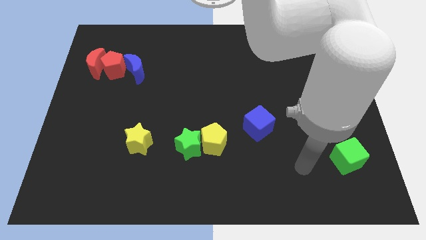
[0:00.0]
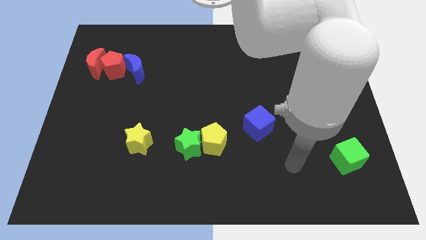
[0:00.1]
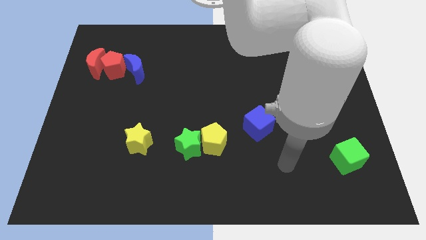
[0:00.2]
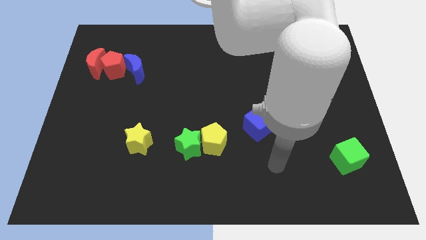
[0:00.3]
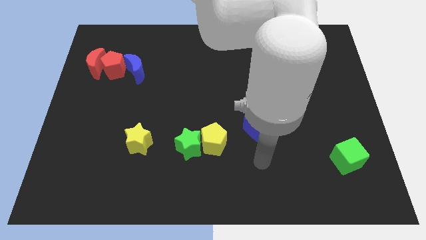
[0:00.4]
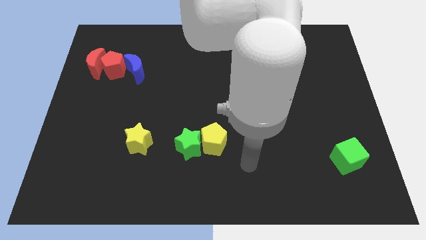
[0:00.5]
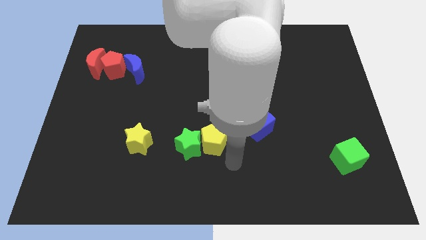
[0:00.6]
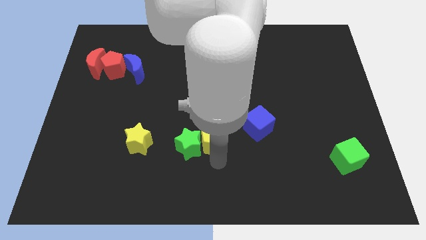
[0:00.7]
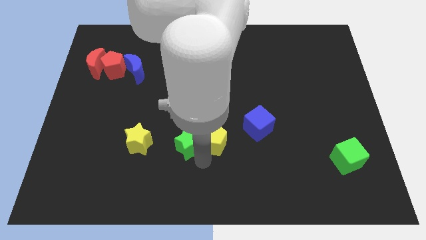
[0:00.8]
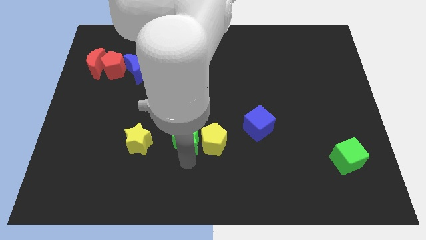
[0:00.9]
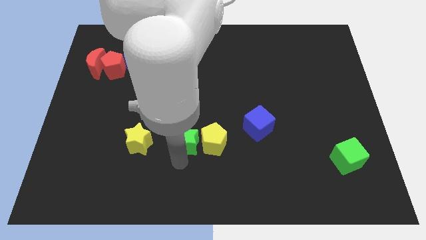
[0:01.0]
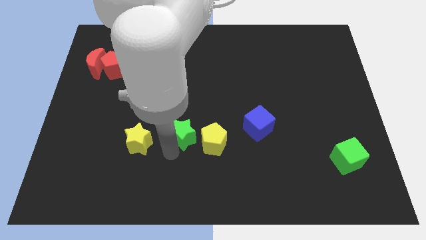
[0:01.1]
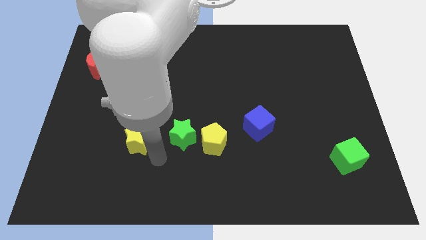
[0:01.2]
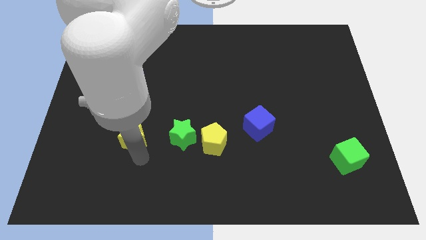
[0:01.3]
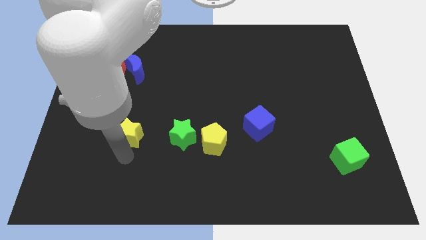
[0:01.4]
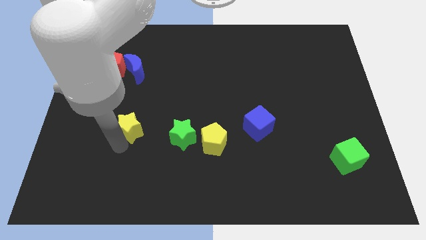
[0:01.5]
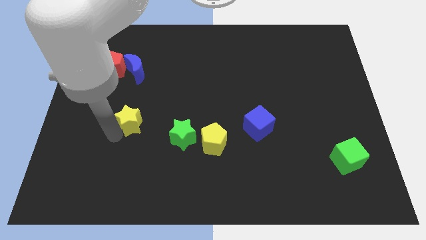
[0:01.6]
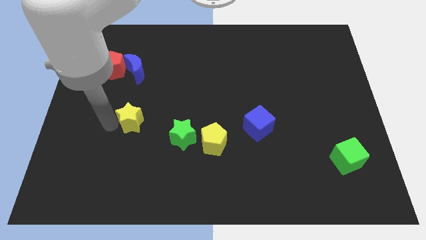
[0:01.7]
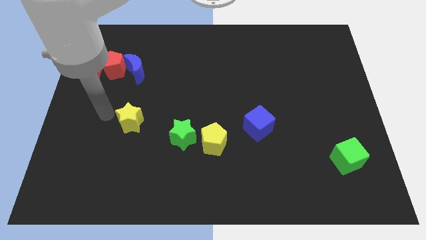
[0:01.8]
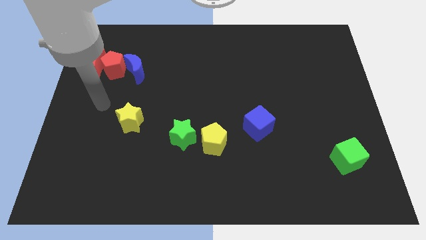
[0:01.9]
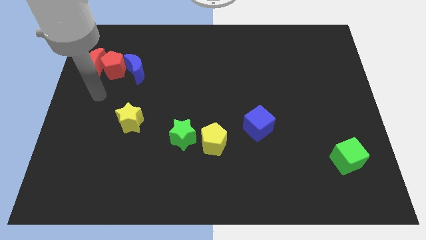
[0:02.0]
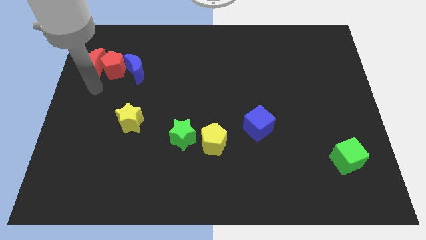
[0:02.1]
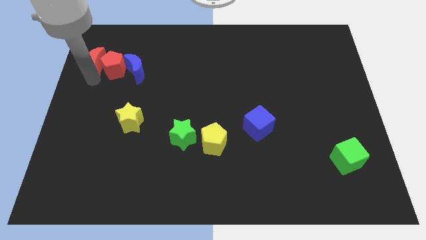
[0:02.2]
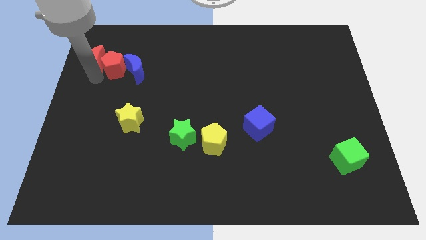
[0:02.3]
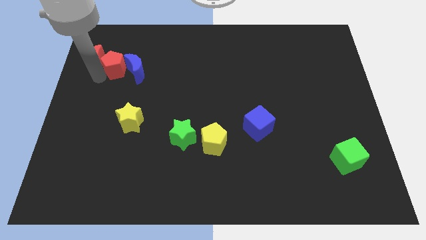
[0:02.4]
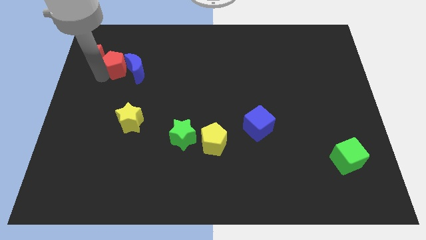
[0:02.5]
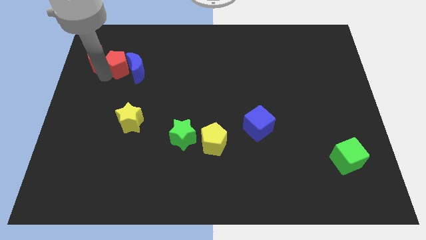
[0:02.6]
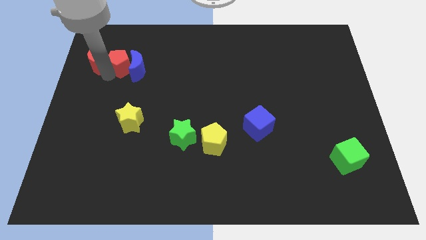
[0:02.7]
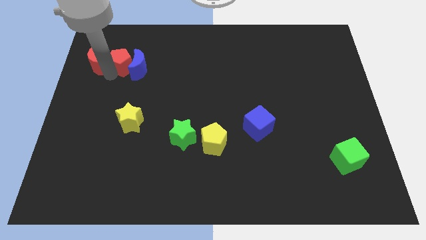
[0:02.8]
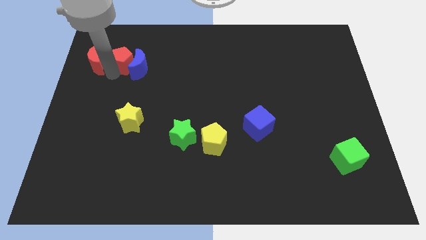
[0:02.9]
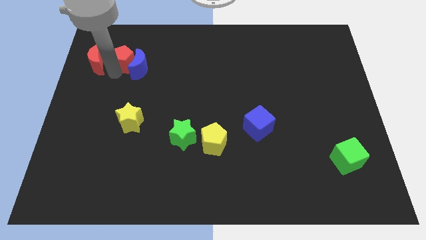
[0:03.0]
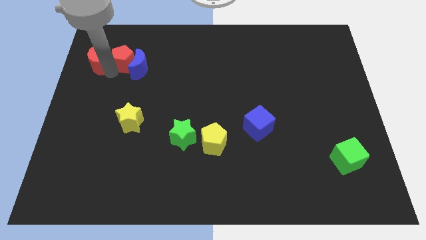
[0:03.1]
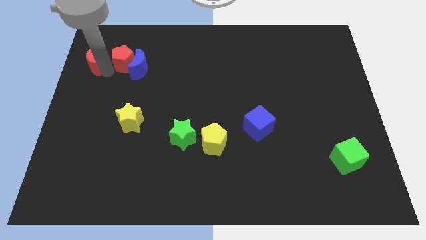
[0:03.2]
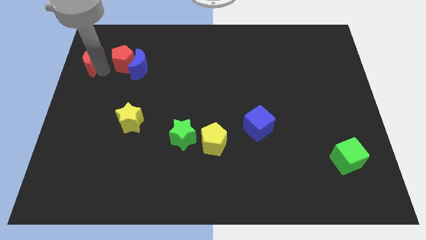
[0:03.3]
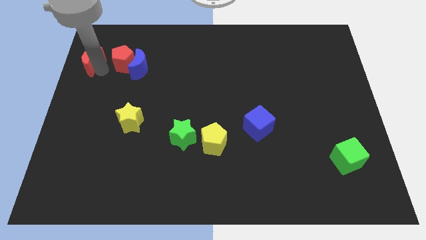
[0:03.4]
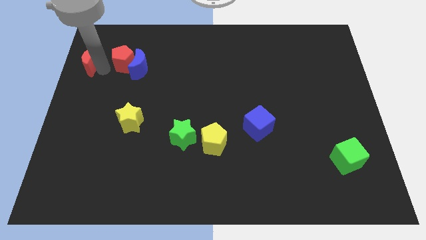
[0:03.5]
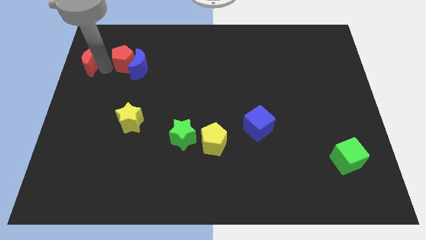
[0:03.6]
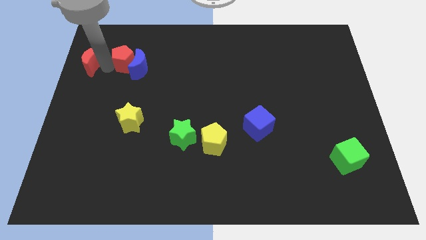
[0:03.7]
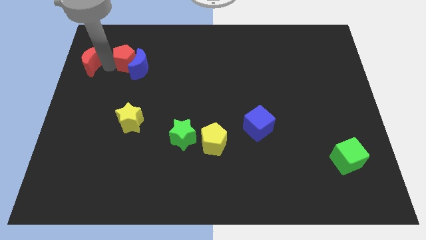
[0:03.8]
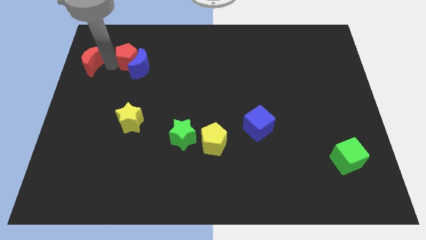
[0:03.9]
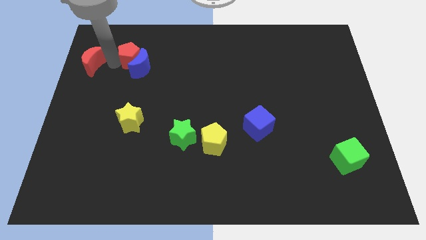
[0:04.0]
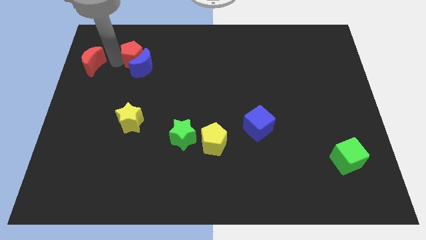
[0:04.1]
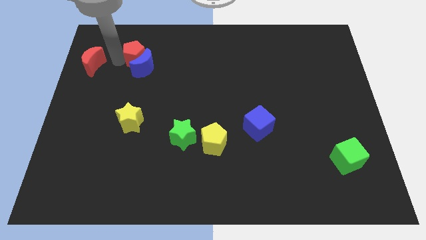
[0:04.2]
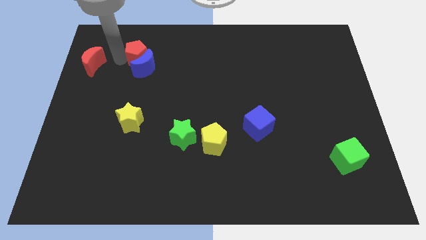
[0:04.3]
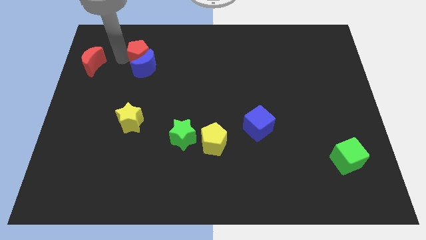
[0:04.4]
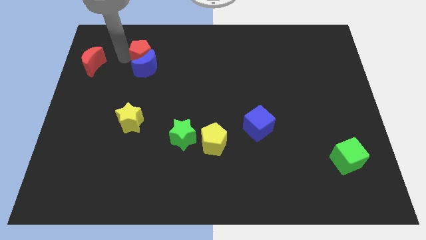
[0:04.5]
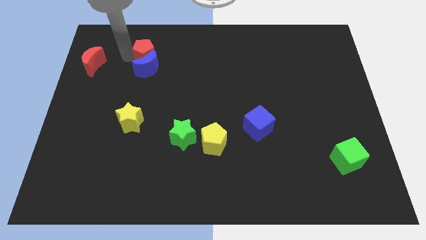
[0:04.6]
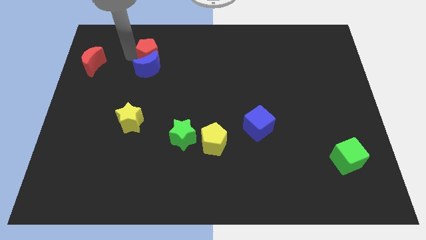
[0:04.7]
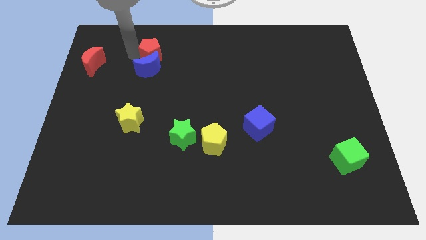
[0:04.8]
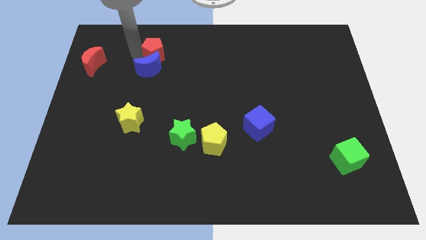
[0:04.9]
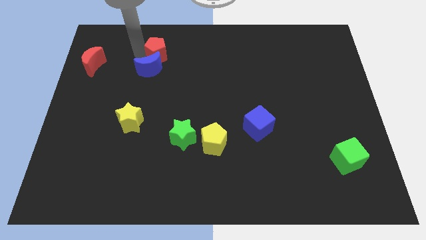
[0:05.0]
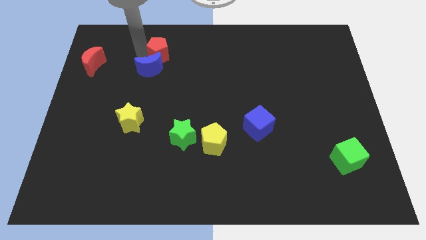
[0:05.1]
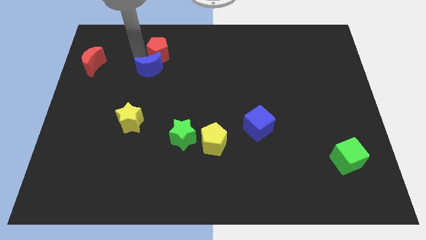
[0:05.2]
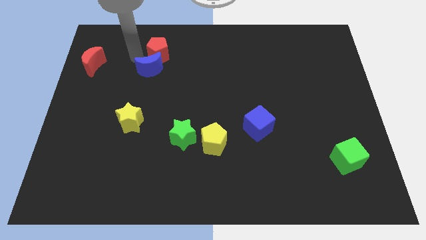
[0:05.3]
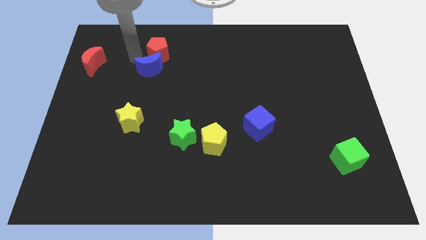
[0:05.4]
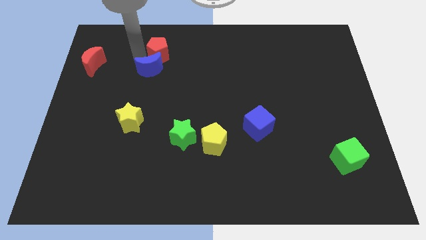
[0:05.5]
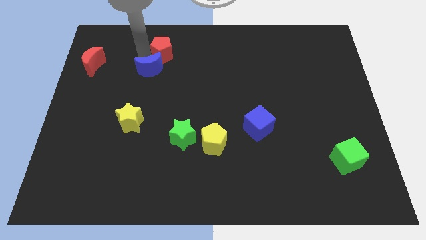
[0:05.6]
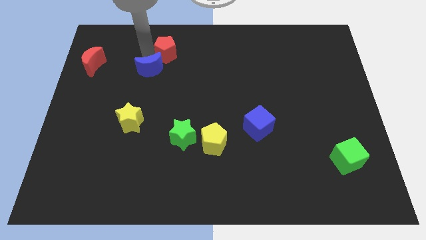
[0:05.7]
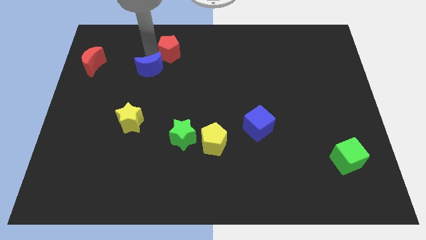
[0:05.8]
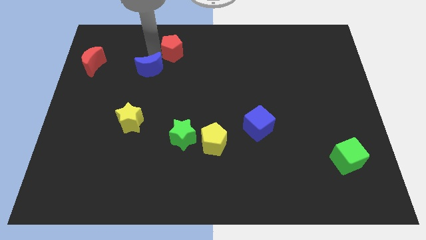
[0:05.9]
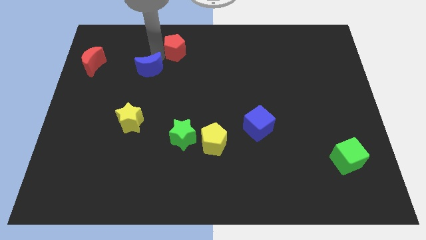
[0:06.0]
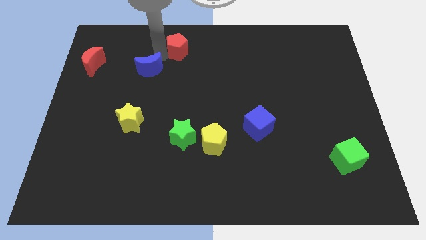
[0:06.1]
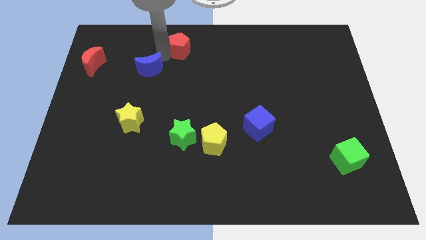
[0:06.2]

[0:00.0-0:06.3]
put the red pentagon to the top
